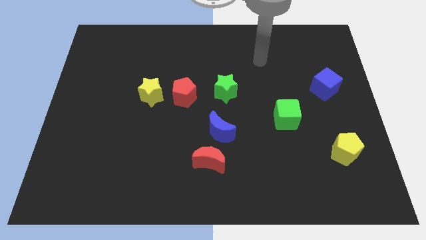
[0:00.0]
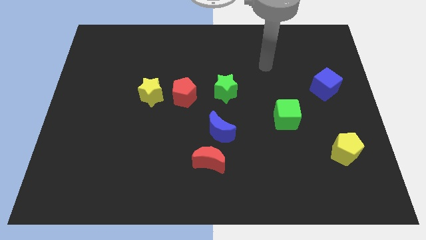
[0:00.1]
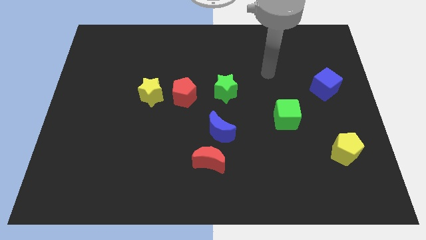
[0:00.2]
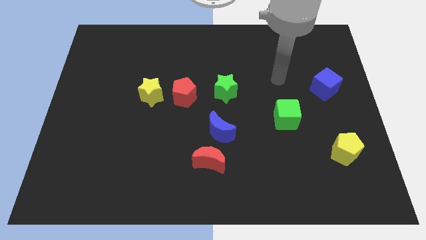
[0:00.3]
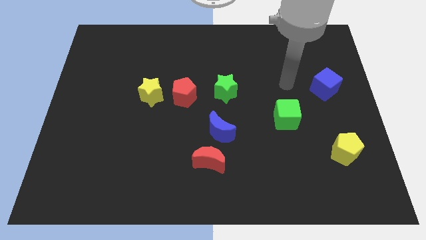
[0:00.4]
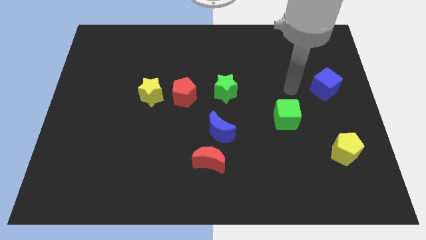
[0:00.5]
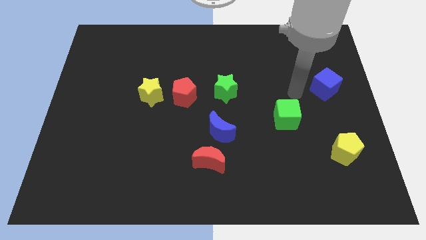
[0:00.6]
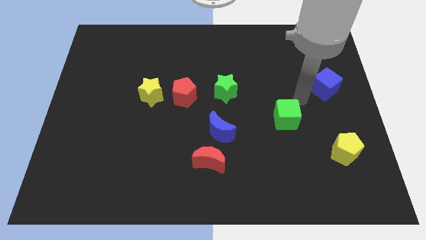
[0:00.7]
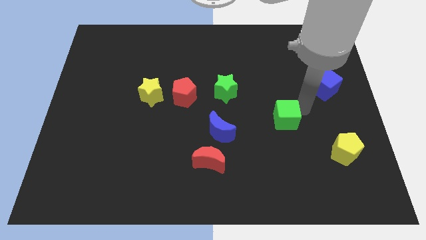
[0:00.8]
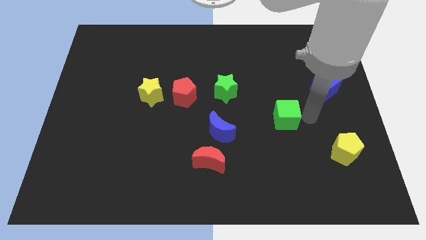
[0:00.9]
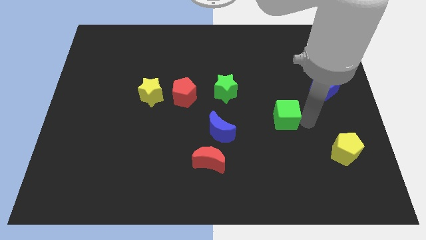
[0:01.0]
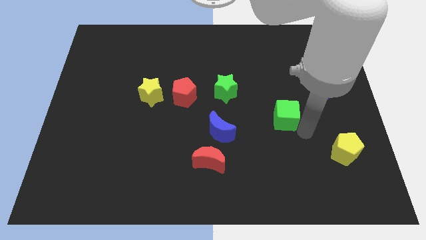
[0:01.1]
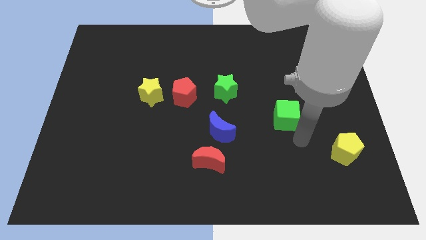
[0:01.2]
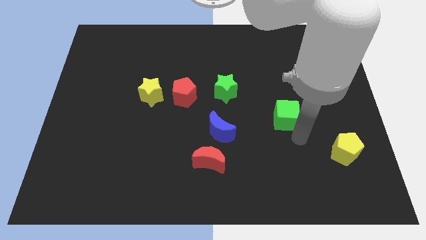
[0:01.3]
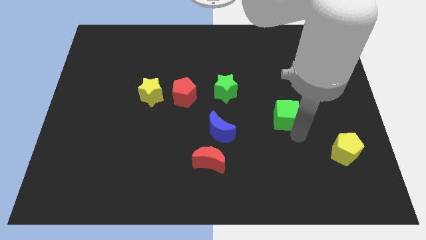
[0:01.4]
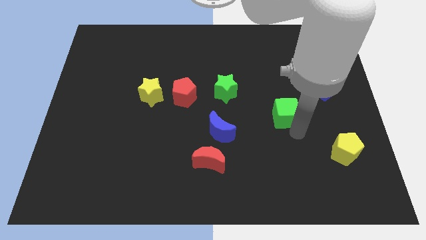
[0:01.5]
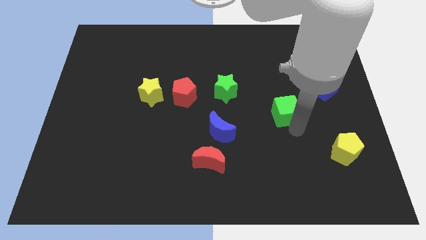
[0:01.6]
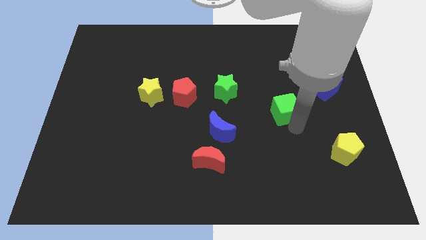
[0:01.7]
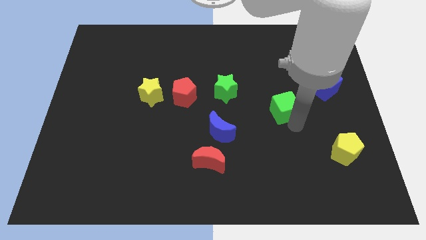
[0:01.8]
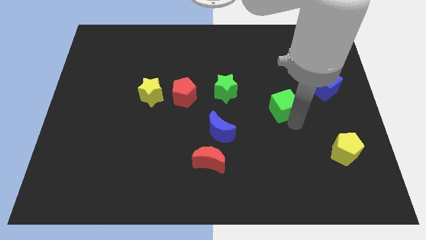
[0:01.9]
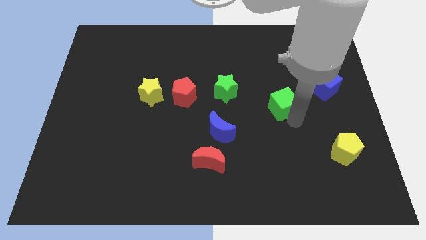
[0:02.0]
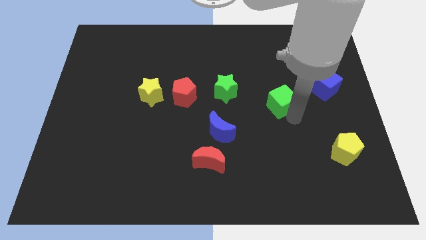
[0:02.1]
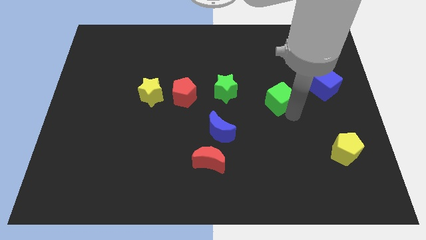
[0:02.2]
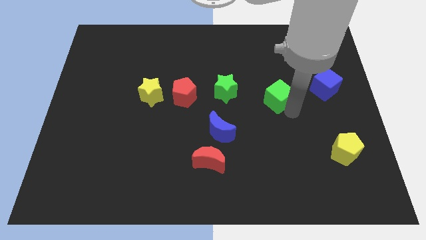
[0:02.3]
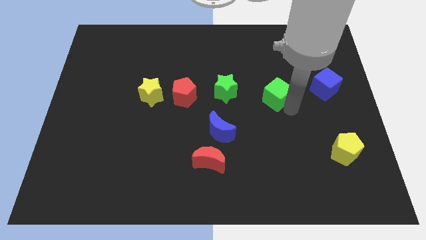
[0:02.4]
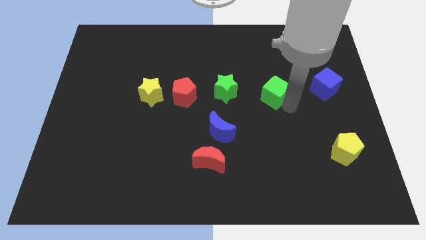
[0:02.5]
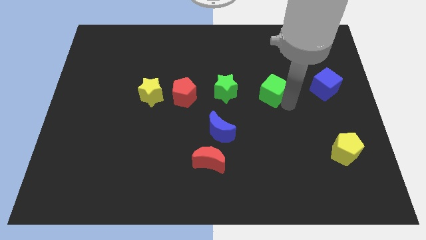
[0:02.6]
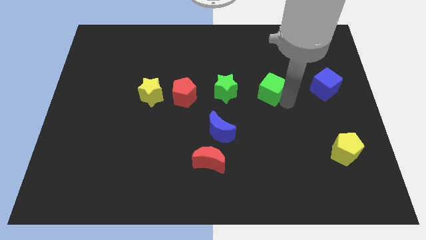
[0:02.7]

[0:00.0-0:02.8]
slightly slide the green cube upwards and to the left

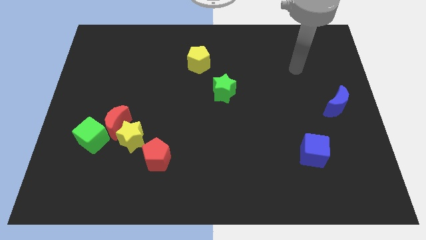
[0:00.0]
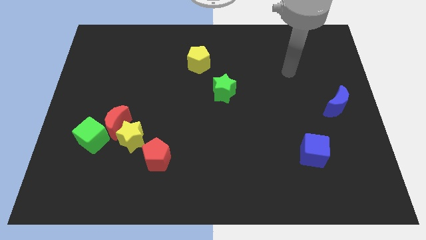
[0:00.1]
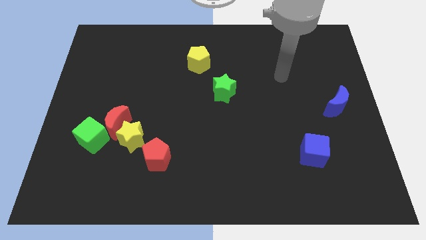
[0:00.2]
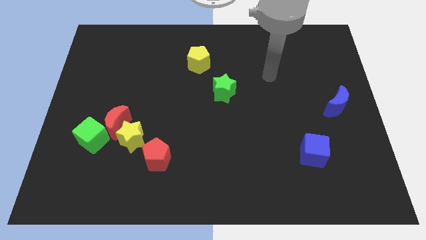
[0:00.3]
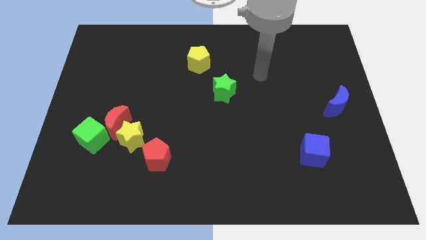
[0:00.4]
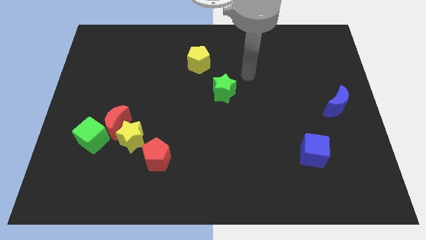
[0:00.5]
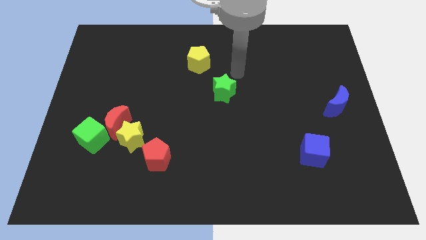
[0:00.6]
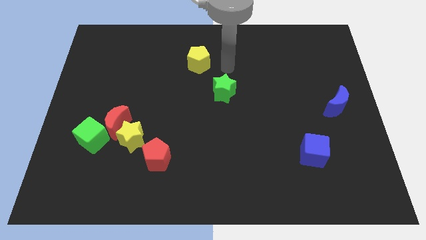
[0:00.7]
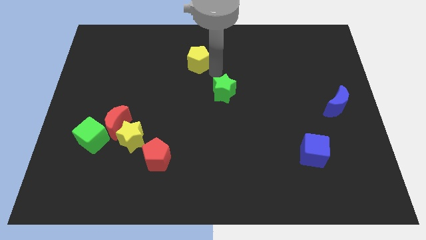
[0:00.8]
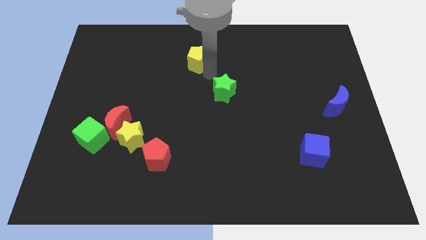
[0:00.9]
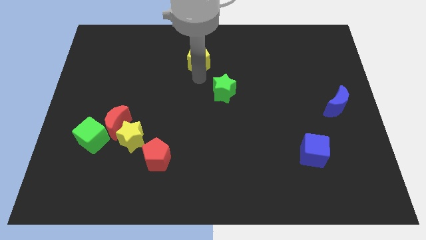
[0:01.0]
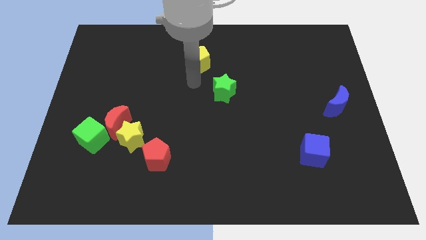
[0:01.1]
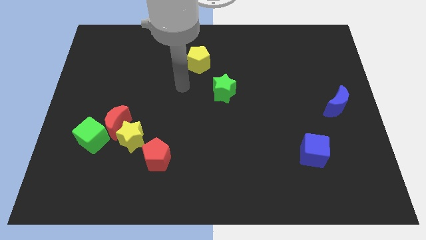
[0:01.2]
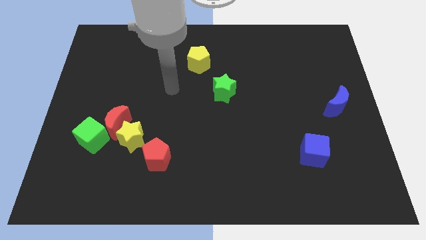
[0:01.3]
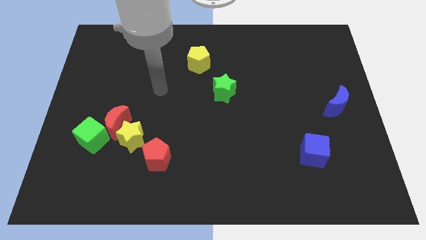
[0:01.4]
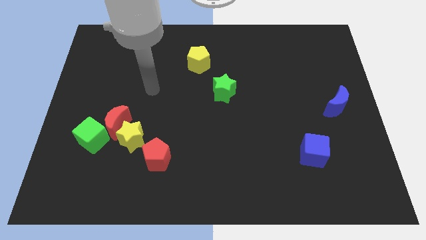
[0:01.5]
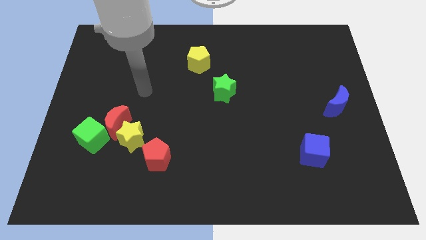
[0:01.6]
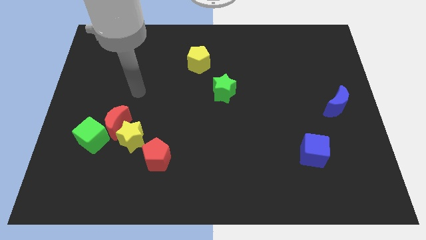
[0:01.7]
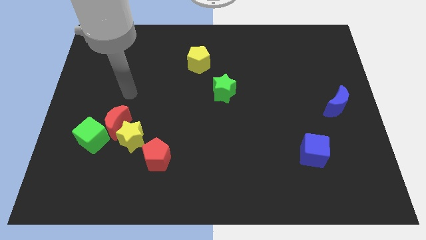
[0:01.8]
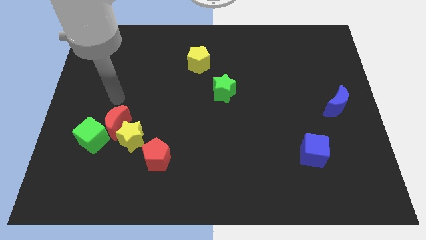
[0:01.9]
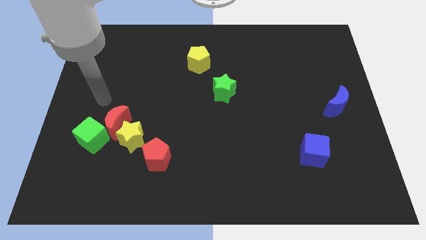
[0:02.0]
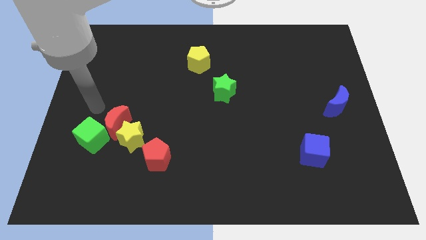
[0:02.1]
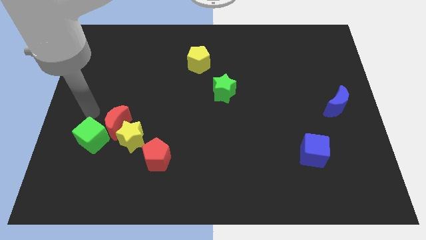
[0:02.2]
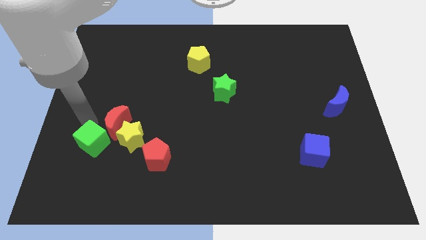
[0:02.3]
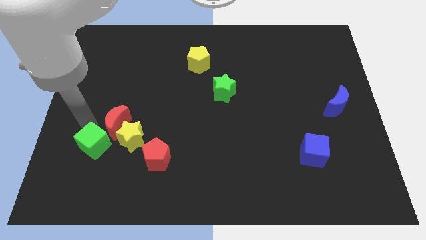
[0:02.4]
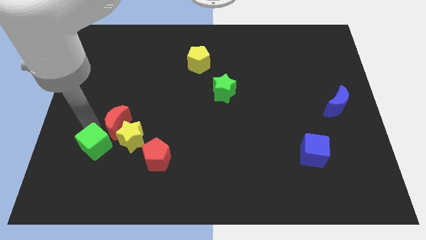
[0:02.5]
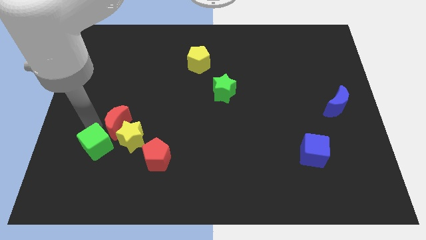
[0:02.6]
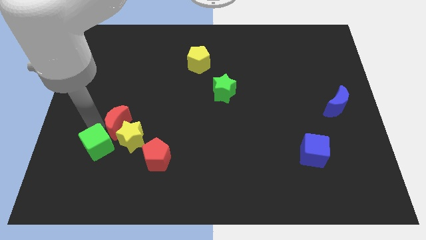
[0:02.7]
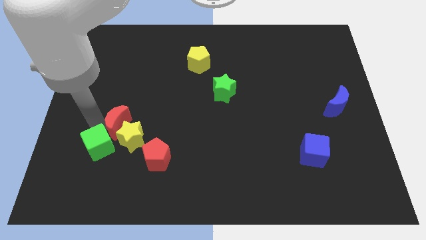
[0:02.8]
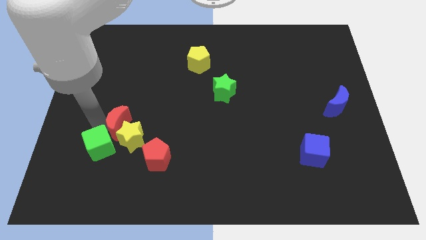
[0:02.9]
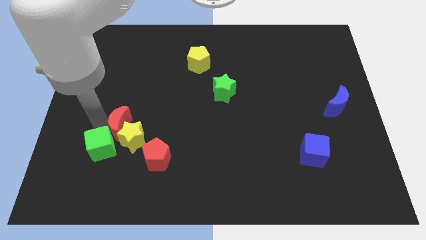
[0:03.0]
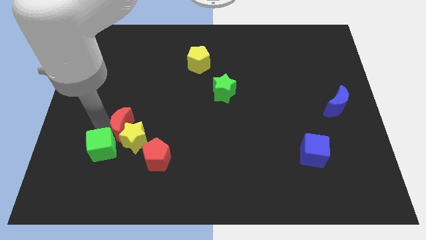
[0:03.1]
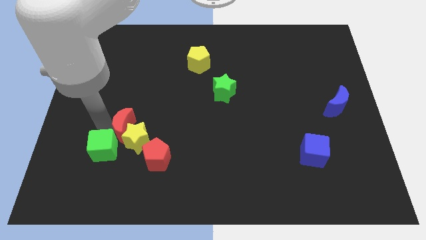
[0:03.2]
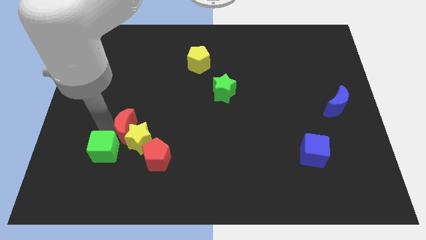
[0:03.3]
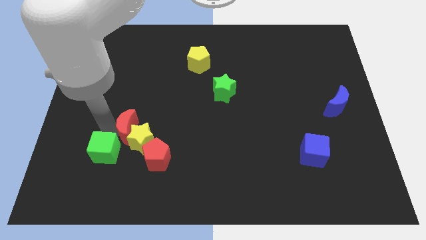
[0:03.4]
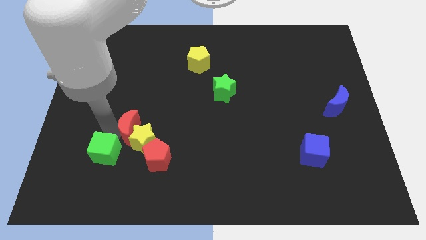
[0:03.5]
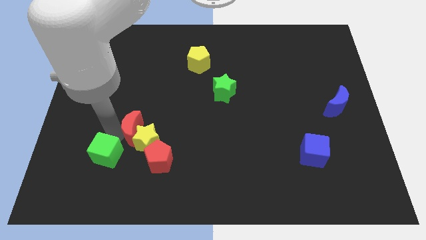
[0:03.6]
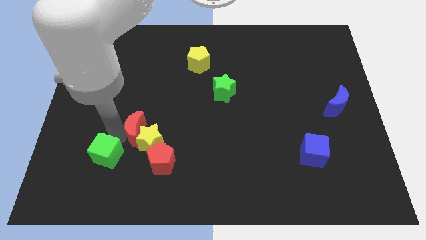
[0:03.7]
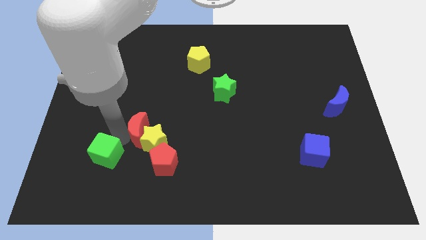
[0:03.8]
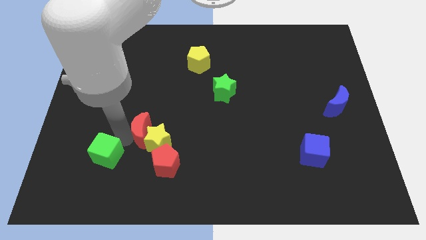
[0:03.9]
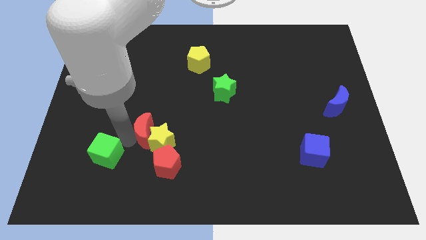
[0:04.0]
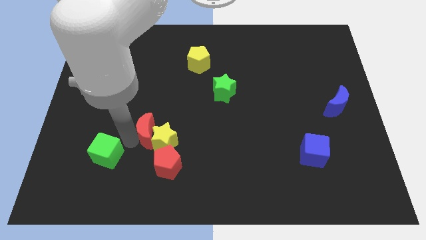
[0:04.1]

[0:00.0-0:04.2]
slightly move the red moon to the right

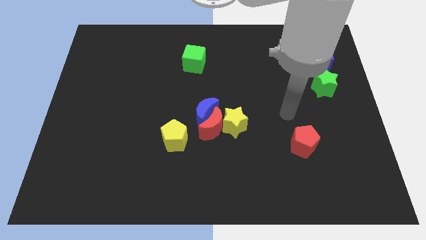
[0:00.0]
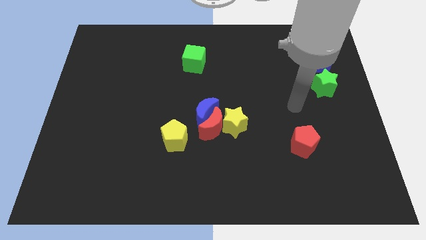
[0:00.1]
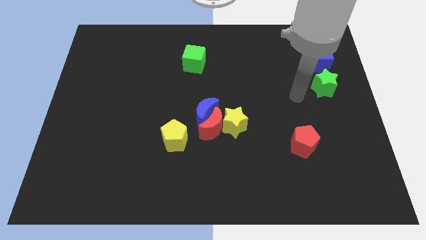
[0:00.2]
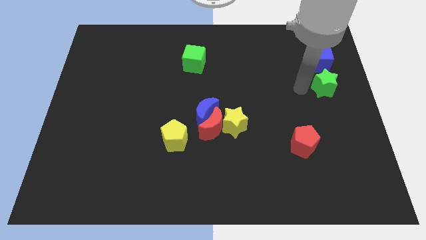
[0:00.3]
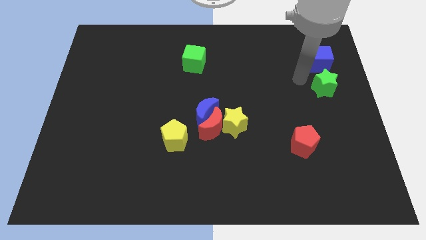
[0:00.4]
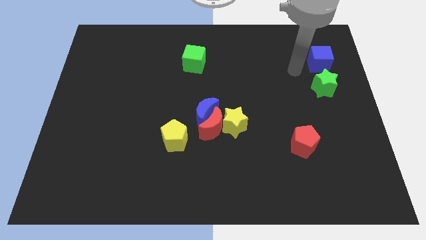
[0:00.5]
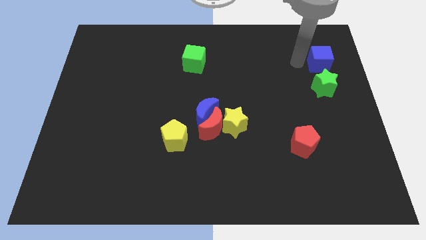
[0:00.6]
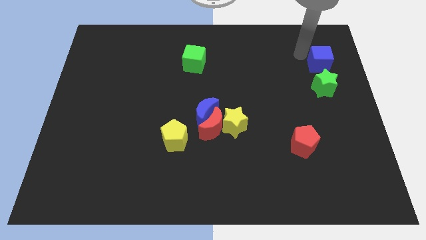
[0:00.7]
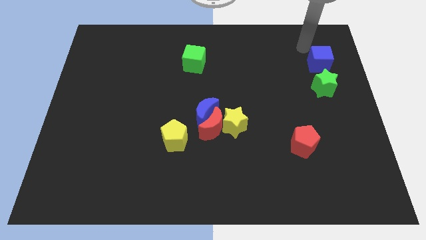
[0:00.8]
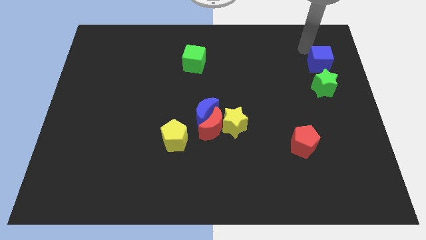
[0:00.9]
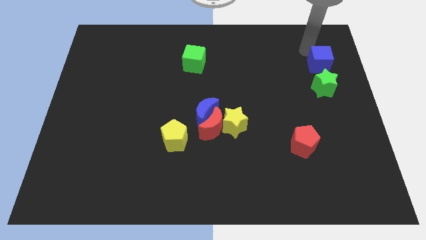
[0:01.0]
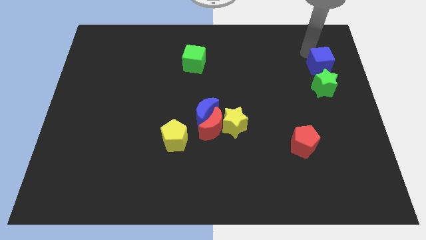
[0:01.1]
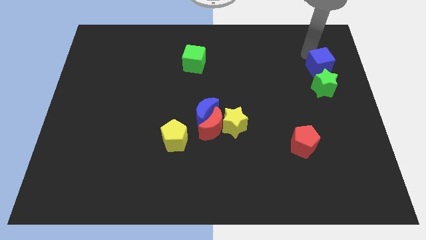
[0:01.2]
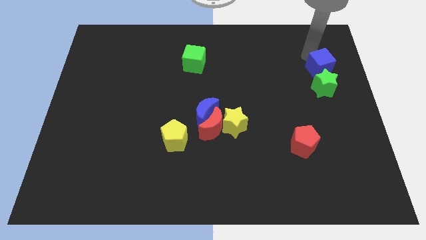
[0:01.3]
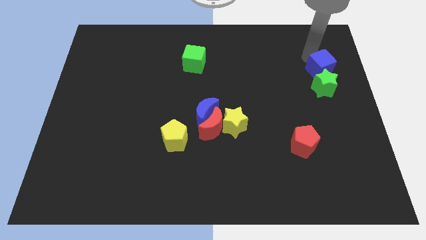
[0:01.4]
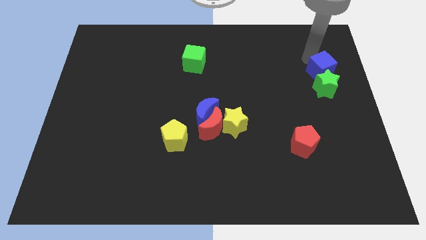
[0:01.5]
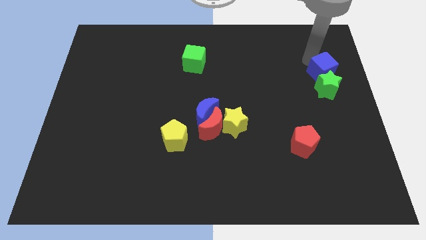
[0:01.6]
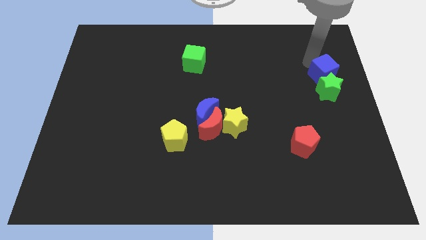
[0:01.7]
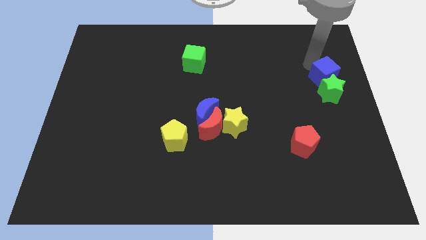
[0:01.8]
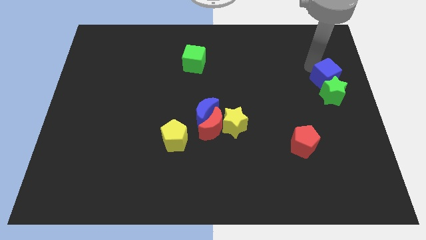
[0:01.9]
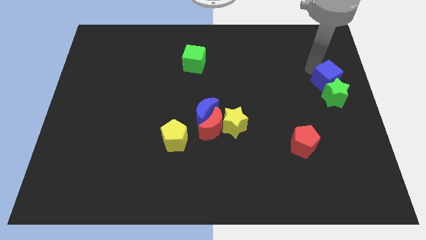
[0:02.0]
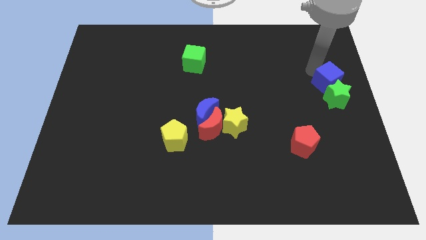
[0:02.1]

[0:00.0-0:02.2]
slide the blue cube downwards somewhat
